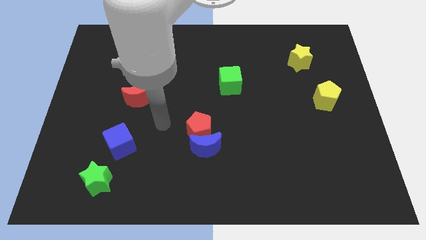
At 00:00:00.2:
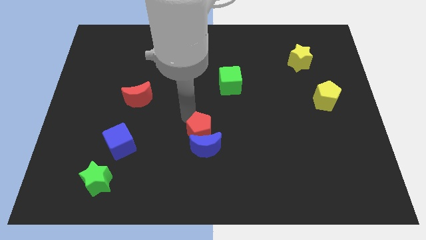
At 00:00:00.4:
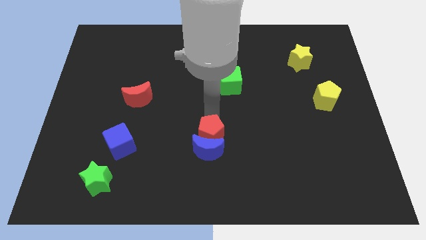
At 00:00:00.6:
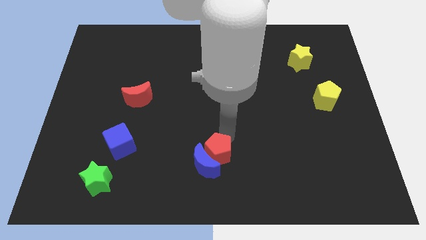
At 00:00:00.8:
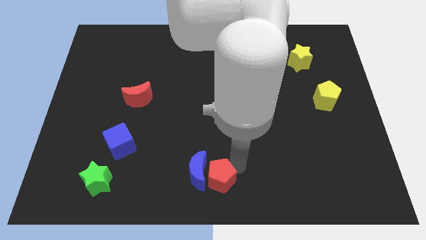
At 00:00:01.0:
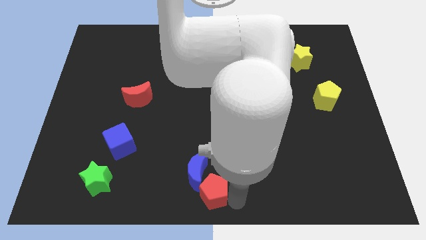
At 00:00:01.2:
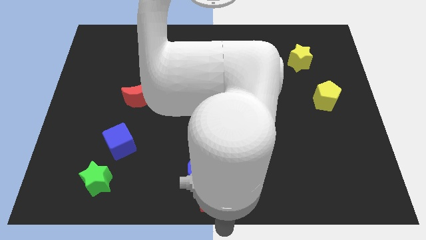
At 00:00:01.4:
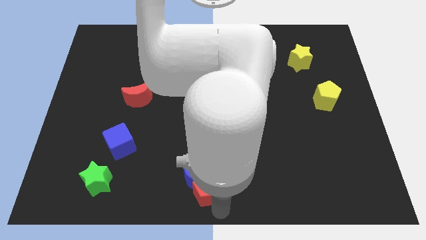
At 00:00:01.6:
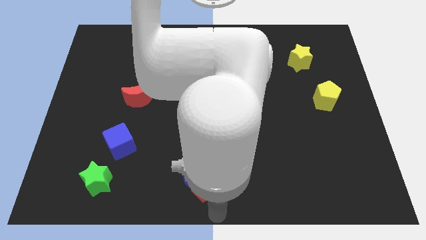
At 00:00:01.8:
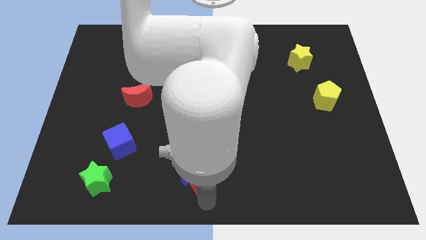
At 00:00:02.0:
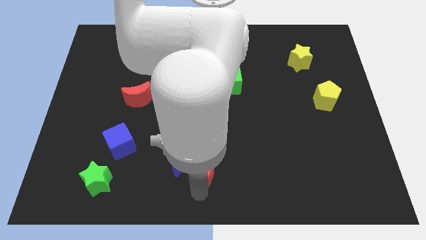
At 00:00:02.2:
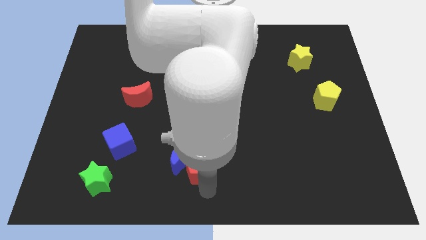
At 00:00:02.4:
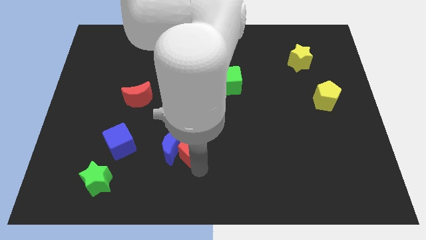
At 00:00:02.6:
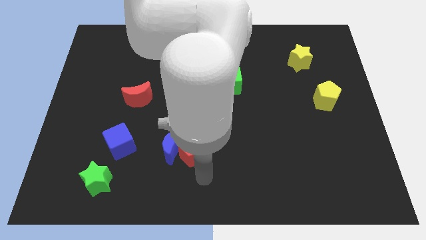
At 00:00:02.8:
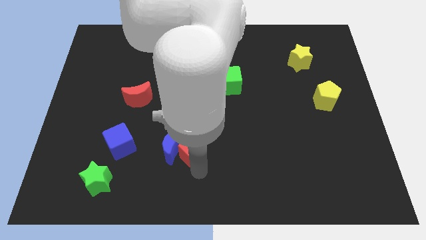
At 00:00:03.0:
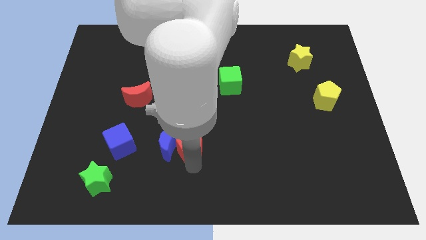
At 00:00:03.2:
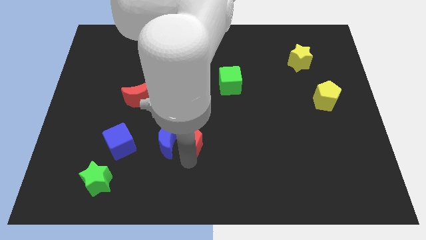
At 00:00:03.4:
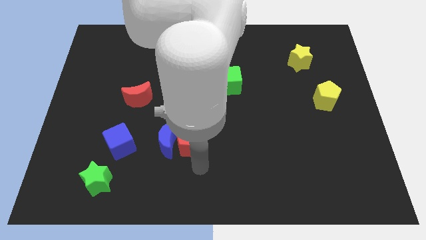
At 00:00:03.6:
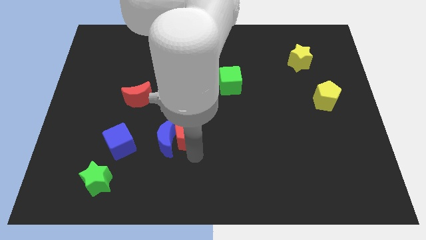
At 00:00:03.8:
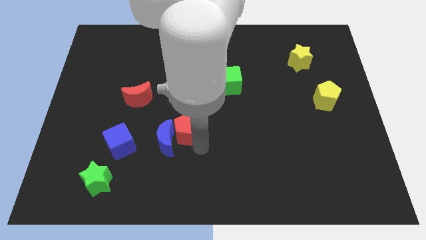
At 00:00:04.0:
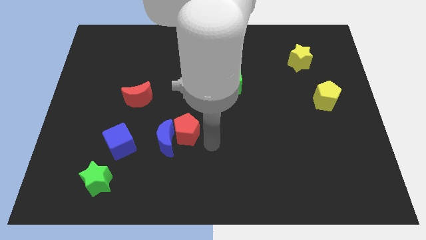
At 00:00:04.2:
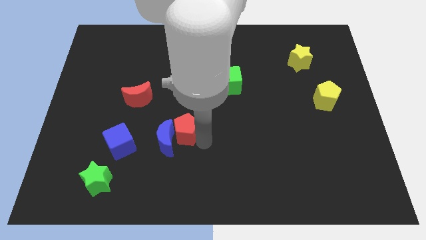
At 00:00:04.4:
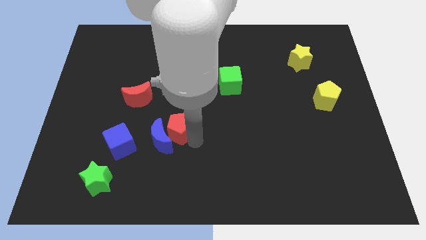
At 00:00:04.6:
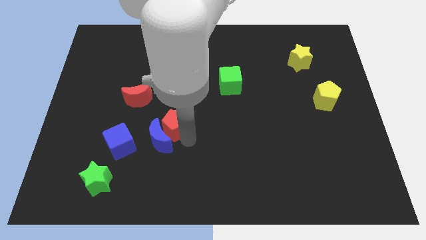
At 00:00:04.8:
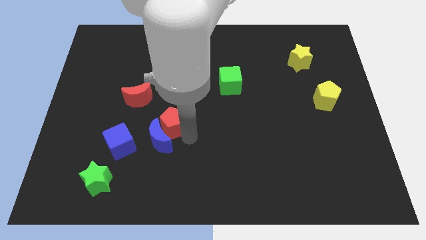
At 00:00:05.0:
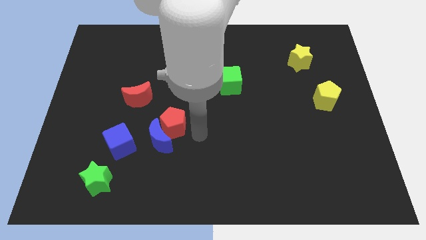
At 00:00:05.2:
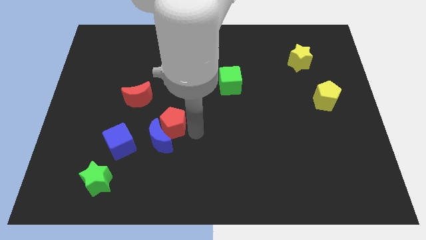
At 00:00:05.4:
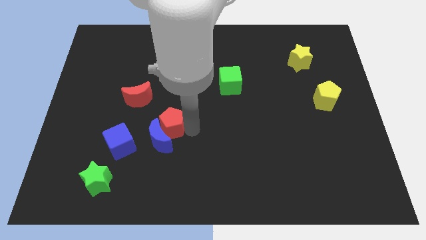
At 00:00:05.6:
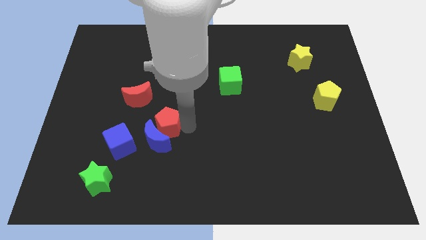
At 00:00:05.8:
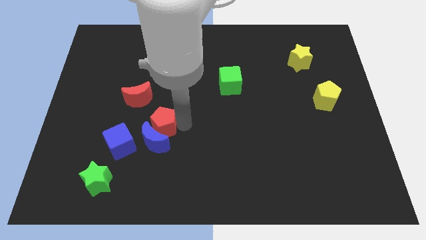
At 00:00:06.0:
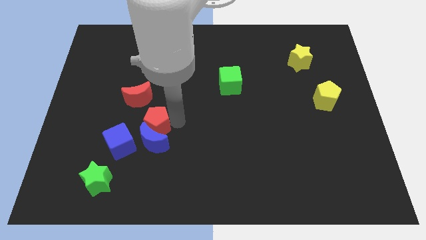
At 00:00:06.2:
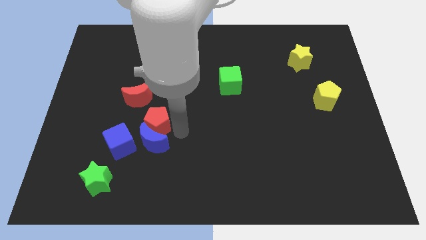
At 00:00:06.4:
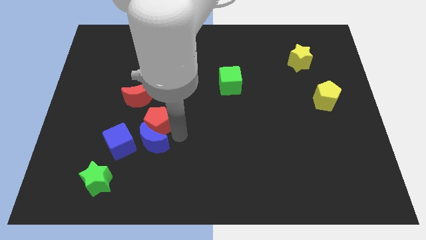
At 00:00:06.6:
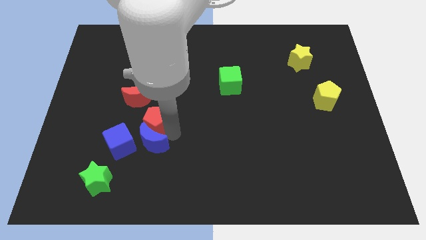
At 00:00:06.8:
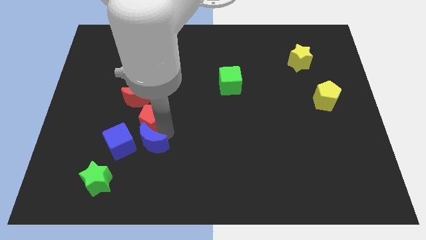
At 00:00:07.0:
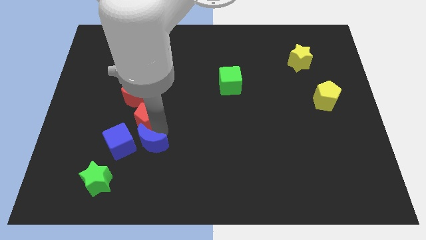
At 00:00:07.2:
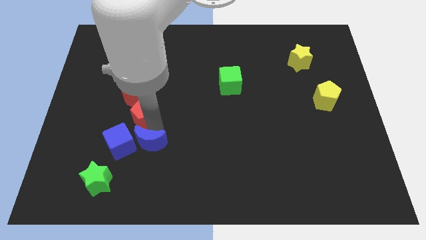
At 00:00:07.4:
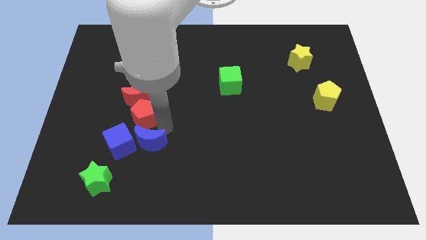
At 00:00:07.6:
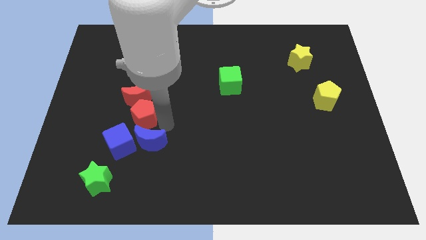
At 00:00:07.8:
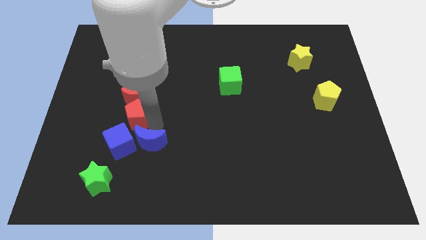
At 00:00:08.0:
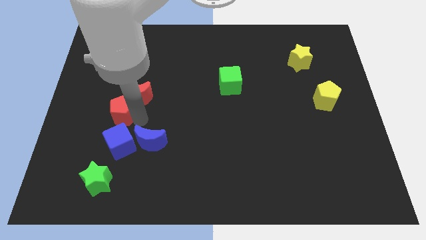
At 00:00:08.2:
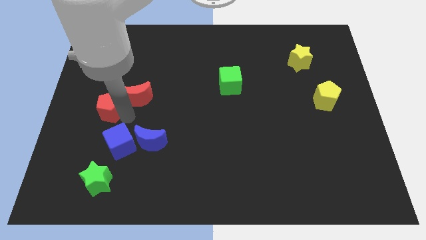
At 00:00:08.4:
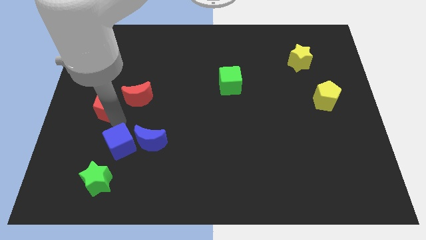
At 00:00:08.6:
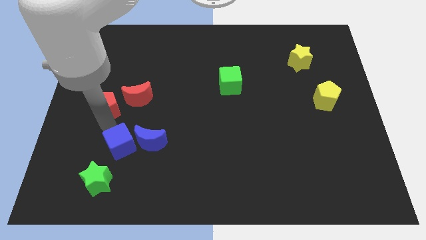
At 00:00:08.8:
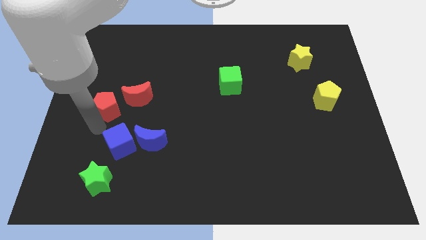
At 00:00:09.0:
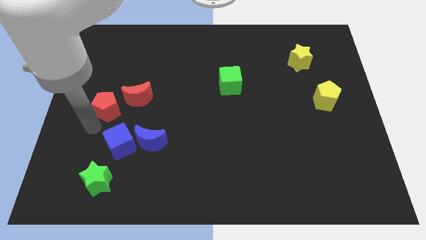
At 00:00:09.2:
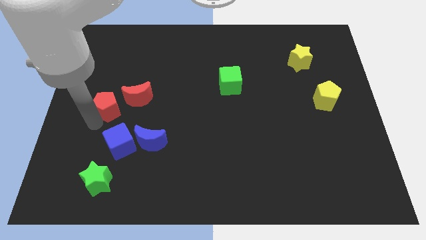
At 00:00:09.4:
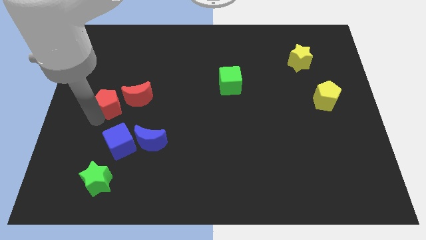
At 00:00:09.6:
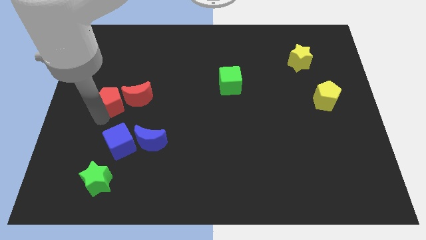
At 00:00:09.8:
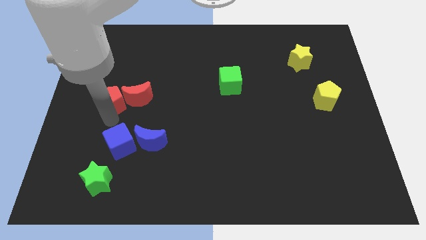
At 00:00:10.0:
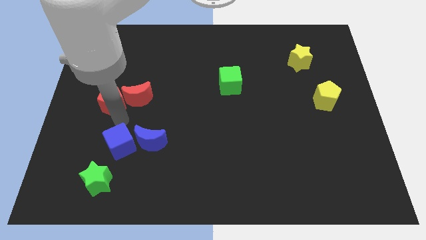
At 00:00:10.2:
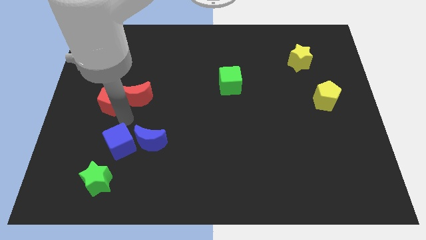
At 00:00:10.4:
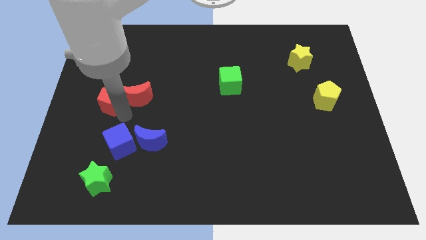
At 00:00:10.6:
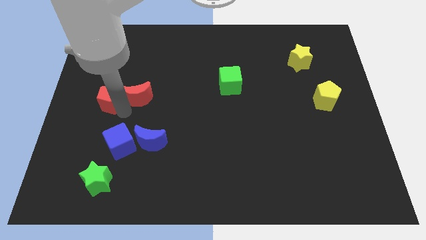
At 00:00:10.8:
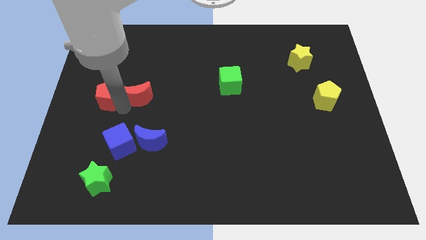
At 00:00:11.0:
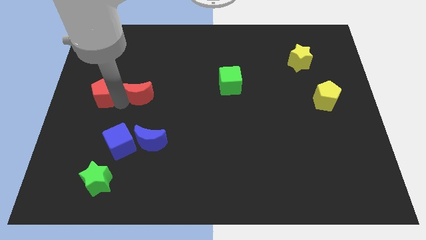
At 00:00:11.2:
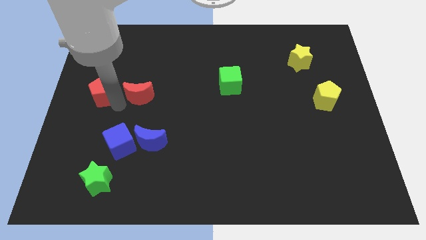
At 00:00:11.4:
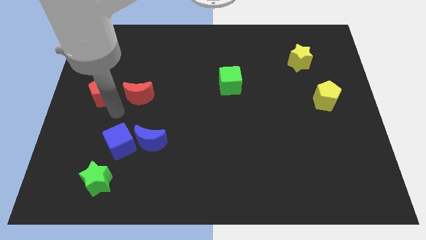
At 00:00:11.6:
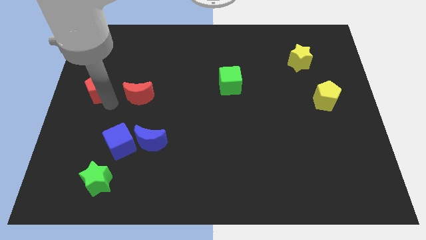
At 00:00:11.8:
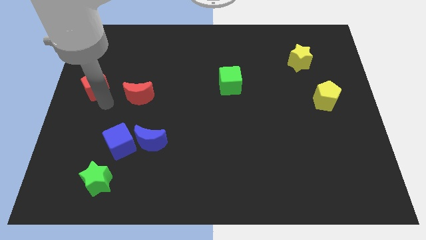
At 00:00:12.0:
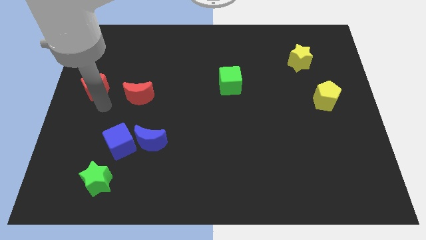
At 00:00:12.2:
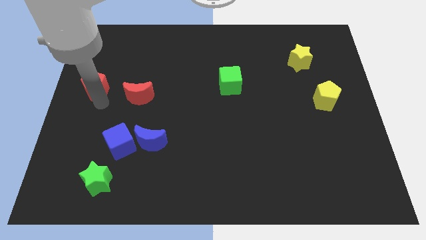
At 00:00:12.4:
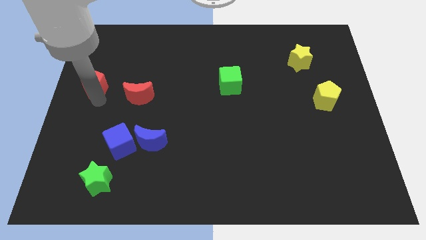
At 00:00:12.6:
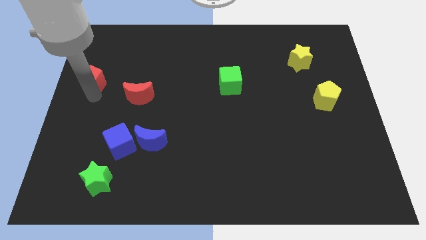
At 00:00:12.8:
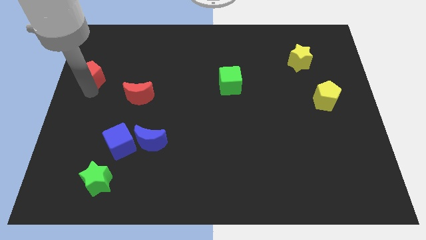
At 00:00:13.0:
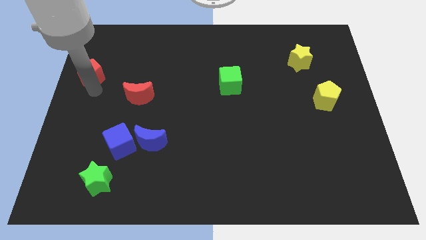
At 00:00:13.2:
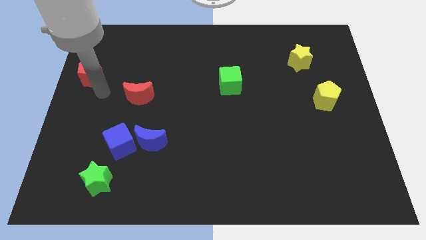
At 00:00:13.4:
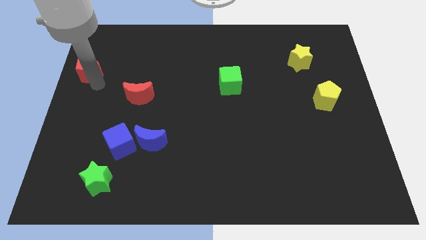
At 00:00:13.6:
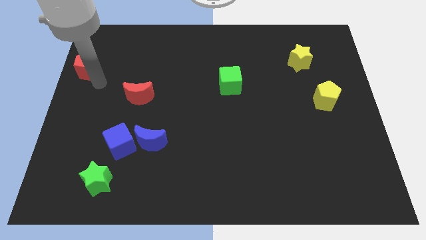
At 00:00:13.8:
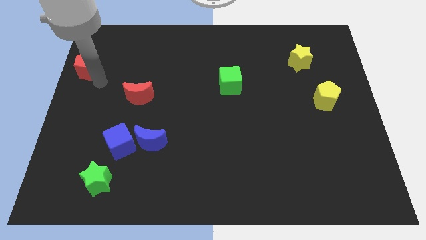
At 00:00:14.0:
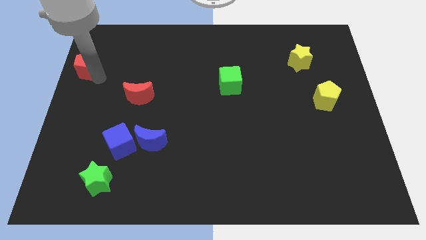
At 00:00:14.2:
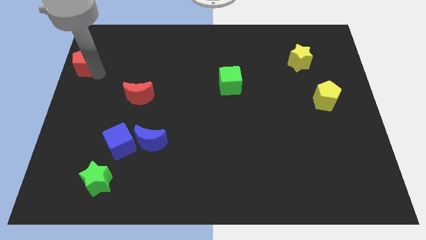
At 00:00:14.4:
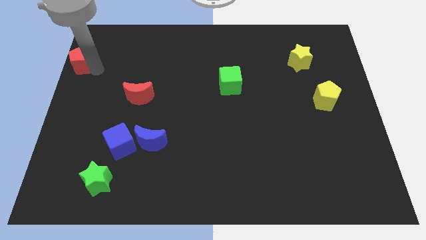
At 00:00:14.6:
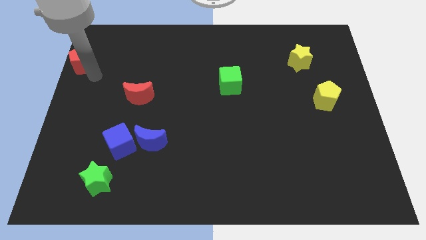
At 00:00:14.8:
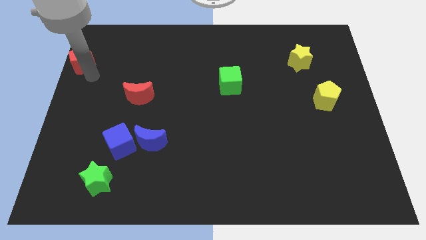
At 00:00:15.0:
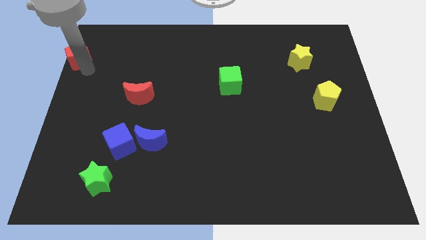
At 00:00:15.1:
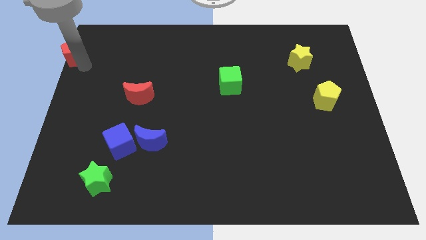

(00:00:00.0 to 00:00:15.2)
move the red pentagon to the upper left corner
